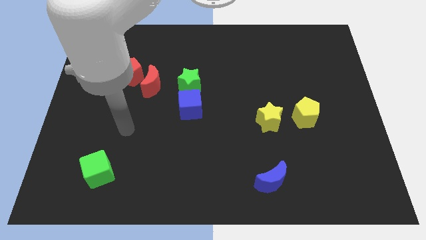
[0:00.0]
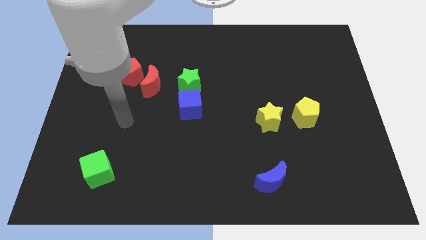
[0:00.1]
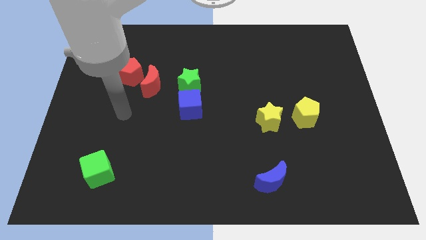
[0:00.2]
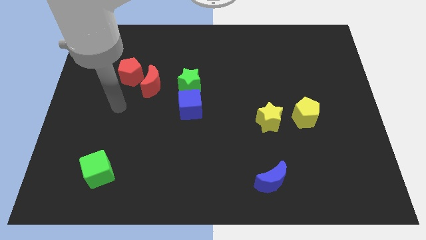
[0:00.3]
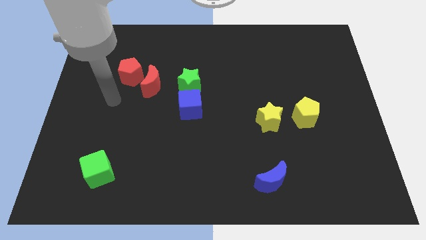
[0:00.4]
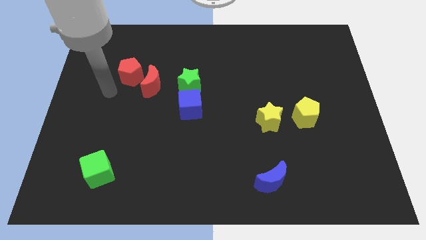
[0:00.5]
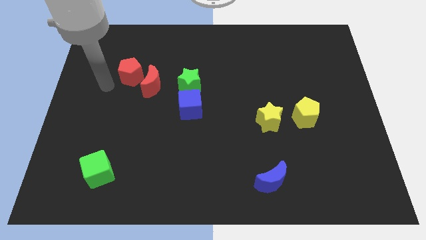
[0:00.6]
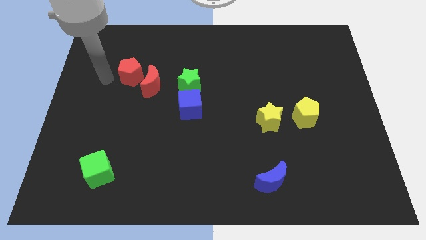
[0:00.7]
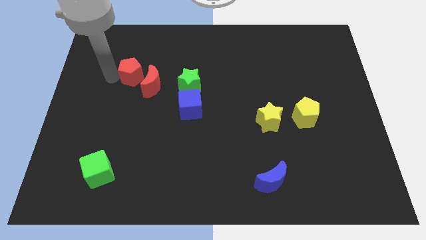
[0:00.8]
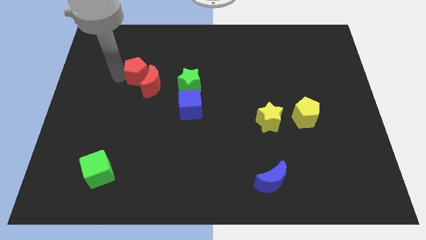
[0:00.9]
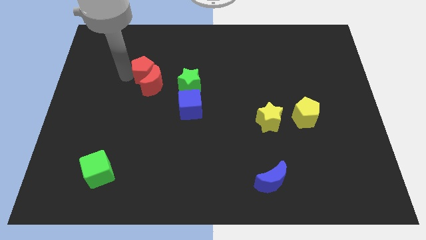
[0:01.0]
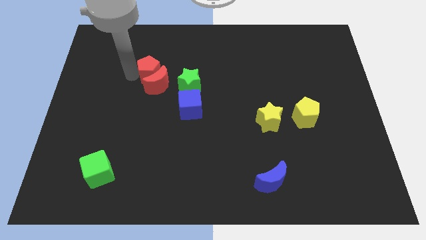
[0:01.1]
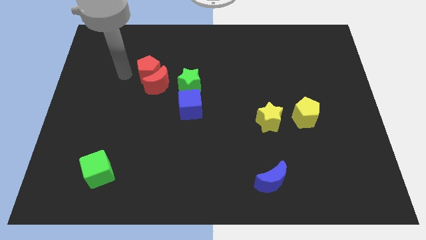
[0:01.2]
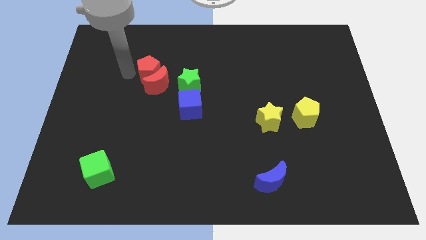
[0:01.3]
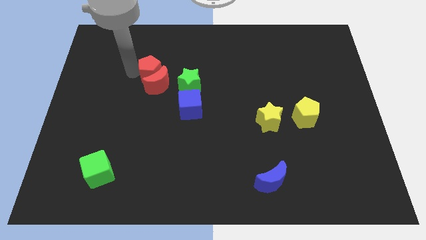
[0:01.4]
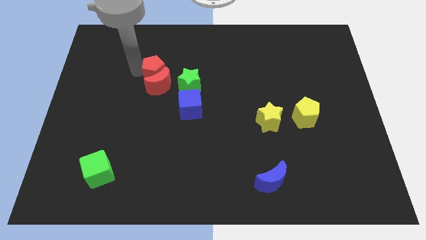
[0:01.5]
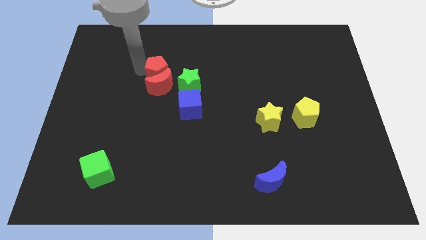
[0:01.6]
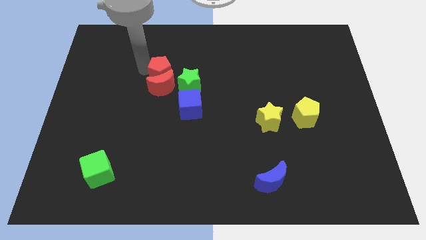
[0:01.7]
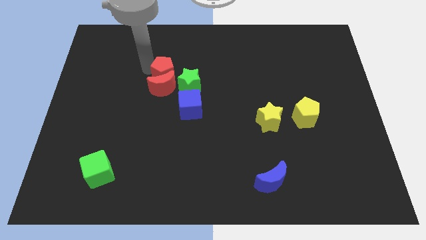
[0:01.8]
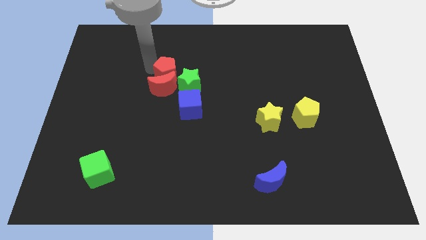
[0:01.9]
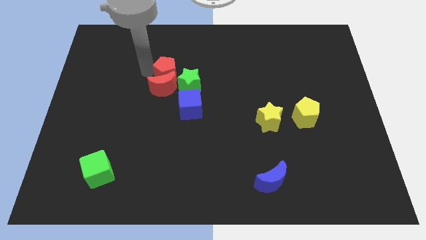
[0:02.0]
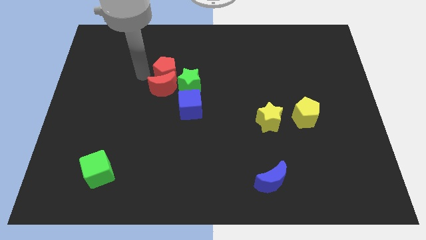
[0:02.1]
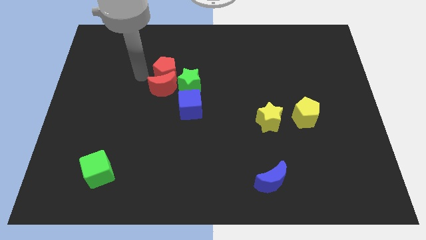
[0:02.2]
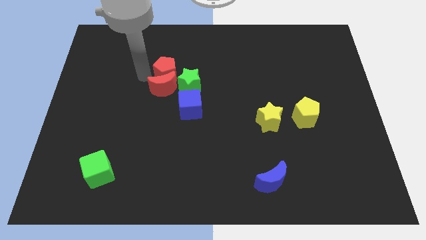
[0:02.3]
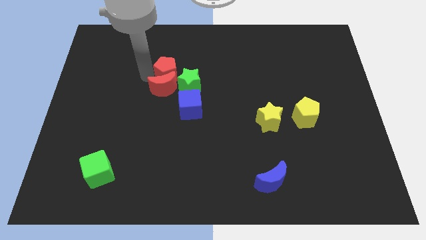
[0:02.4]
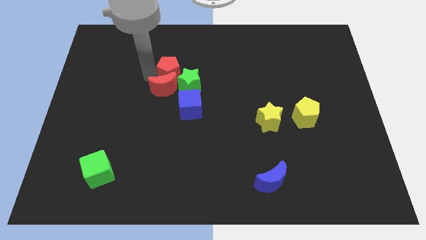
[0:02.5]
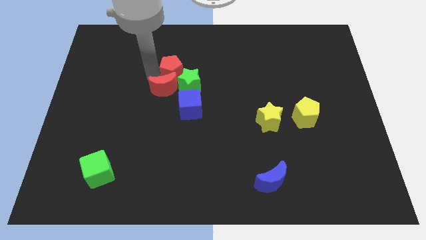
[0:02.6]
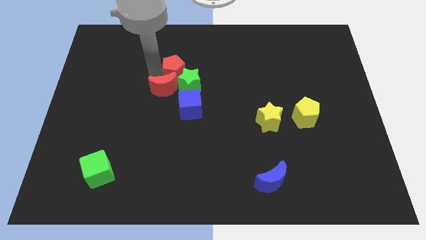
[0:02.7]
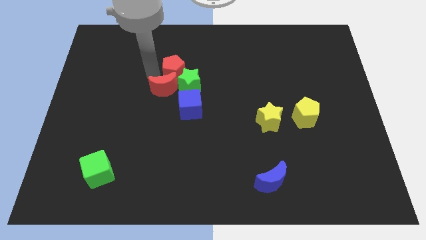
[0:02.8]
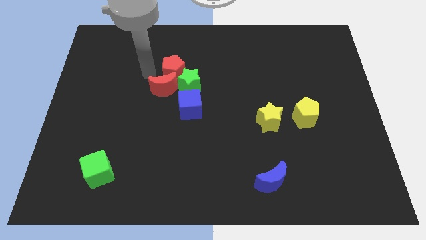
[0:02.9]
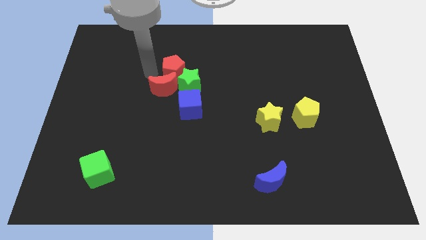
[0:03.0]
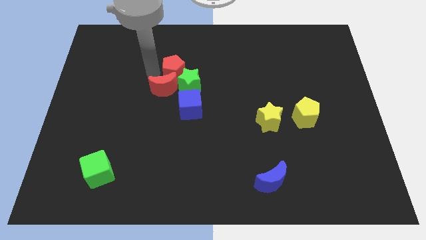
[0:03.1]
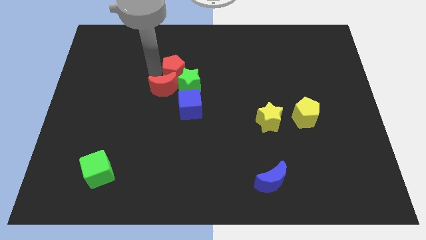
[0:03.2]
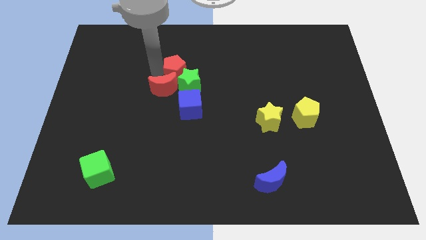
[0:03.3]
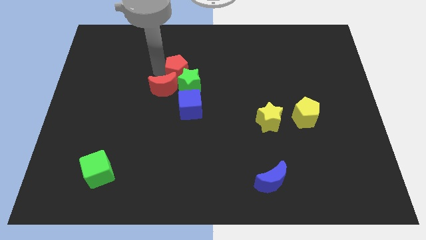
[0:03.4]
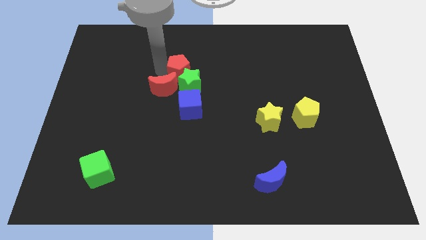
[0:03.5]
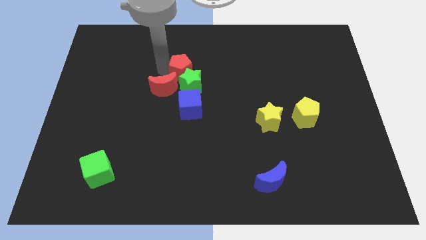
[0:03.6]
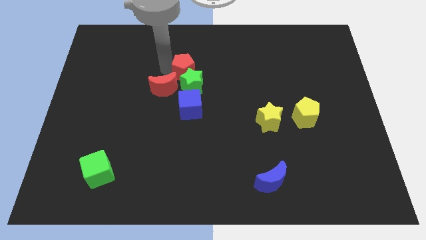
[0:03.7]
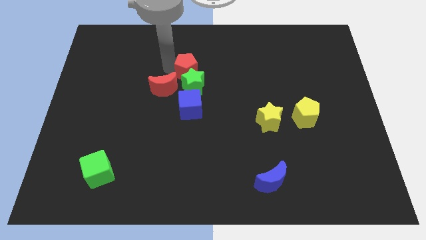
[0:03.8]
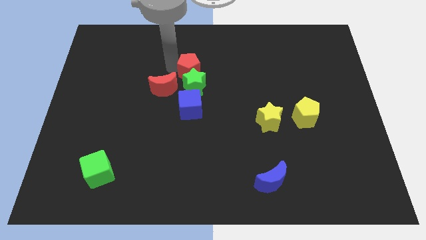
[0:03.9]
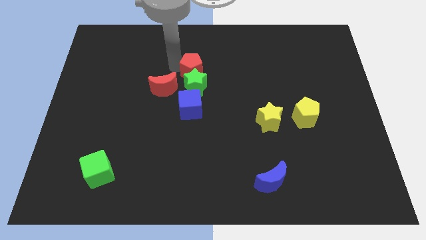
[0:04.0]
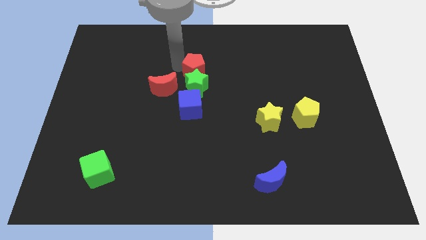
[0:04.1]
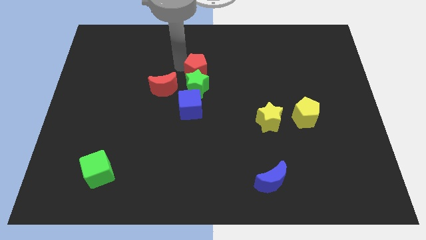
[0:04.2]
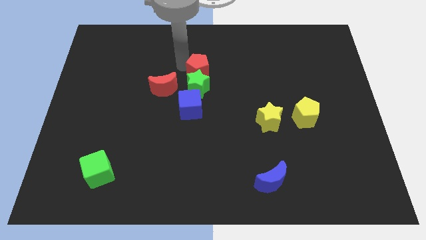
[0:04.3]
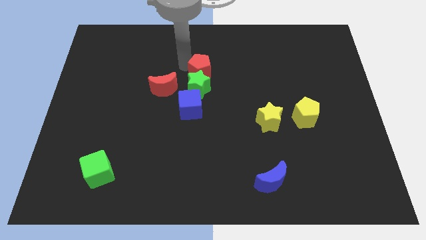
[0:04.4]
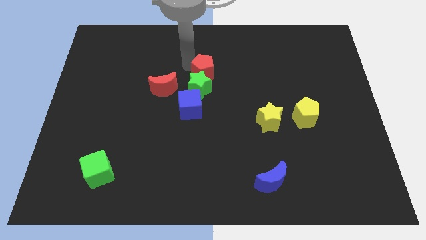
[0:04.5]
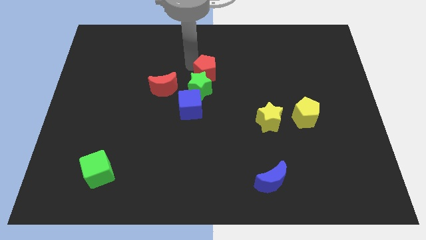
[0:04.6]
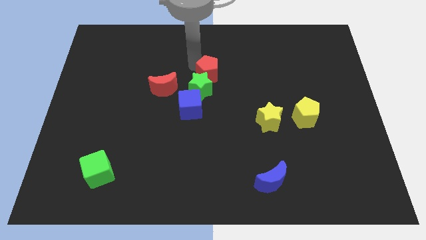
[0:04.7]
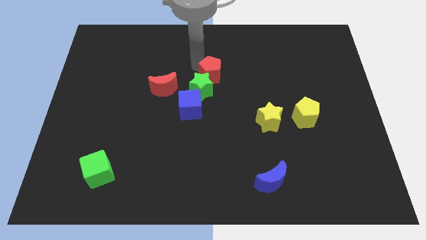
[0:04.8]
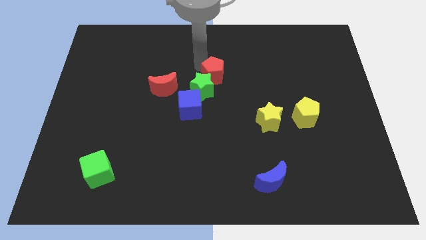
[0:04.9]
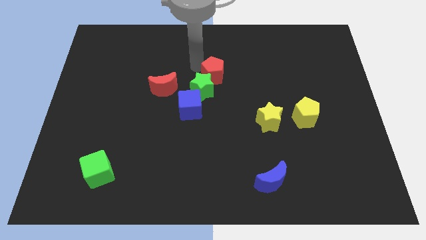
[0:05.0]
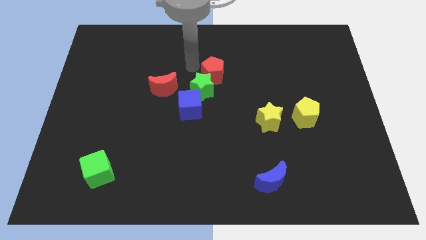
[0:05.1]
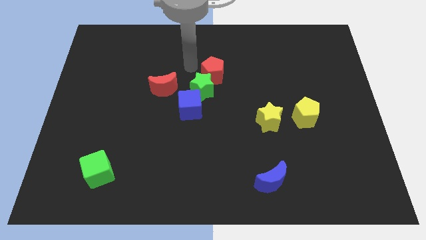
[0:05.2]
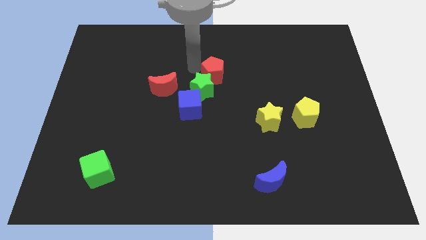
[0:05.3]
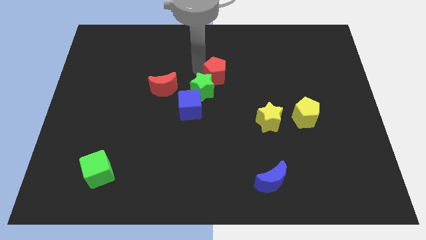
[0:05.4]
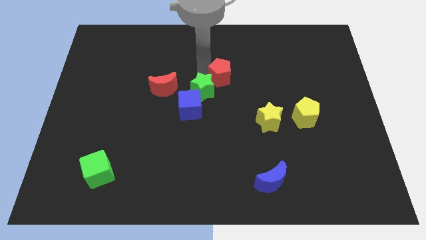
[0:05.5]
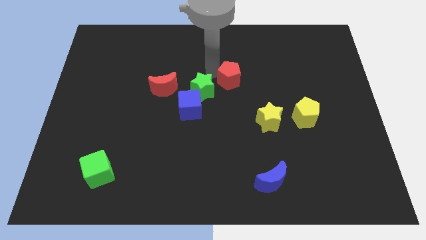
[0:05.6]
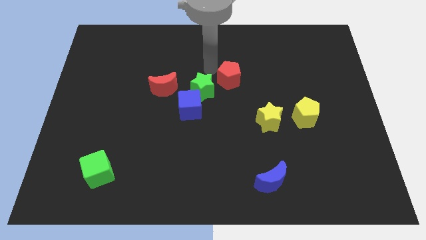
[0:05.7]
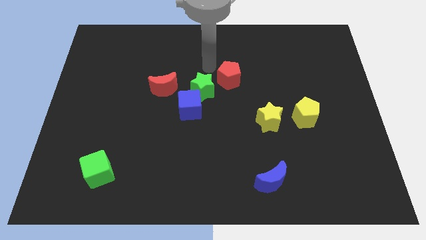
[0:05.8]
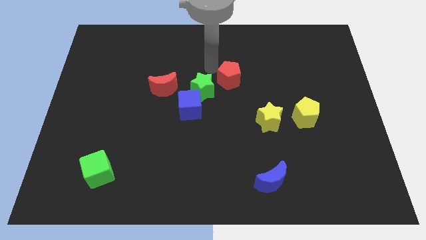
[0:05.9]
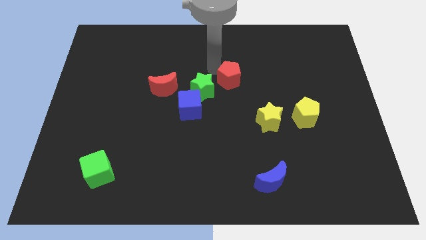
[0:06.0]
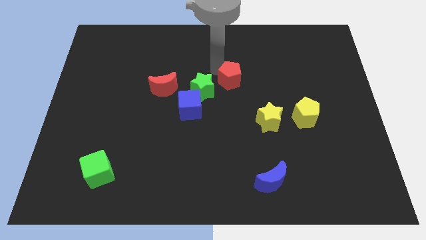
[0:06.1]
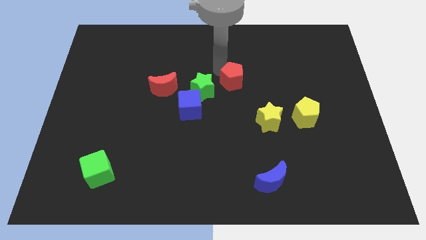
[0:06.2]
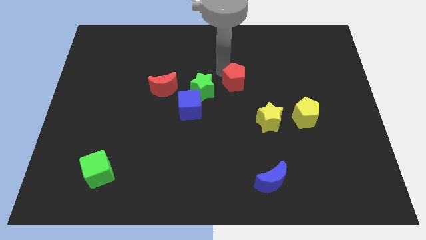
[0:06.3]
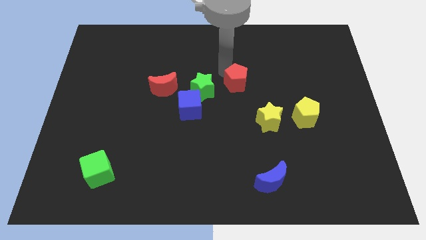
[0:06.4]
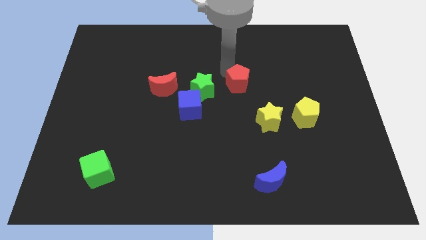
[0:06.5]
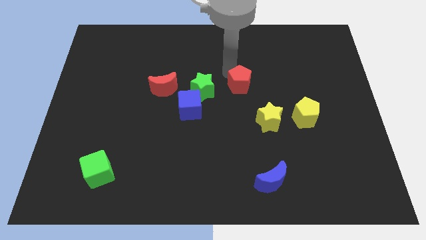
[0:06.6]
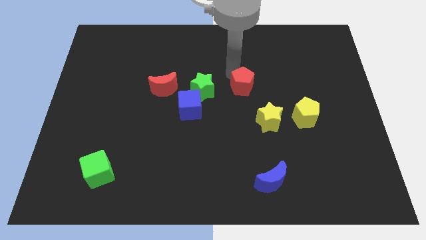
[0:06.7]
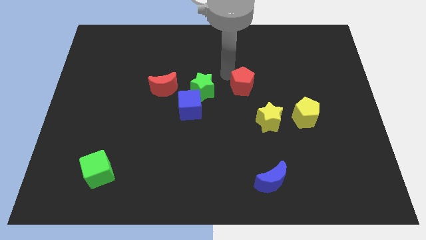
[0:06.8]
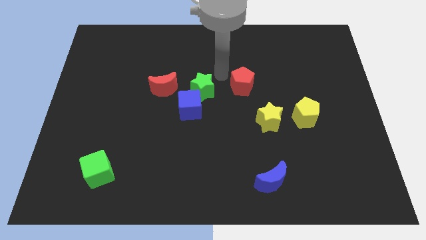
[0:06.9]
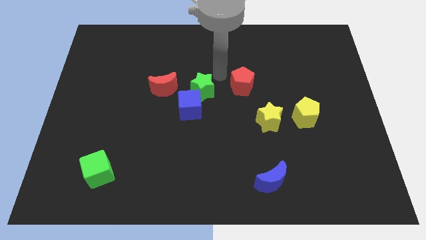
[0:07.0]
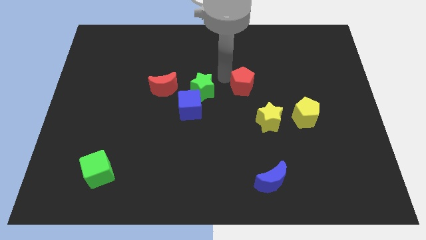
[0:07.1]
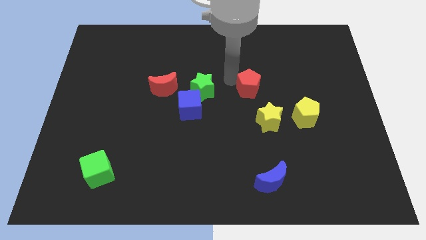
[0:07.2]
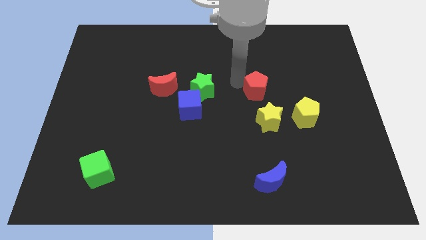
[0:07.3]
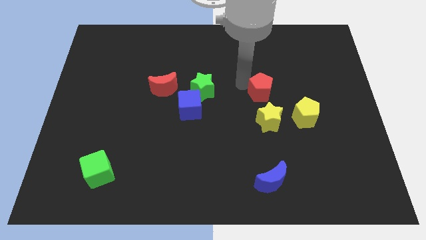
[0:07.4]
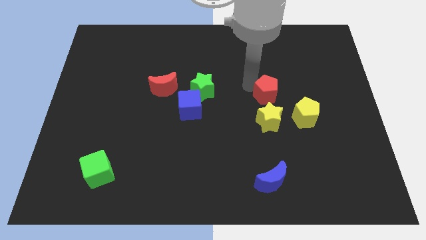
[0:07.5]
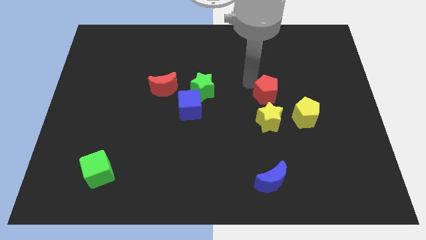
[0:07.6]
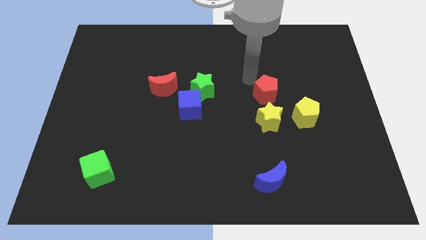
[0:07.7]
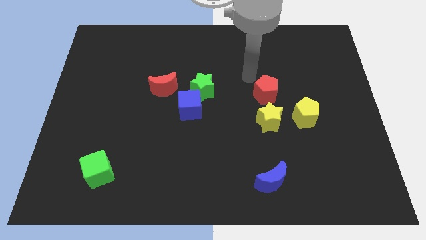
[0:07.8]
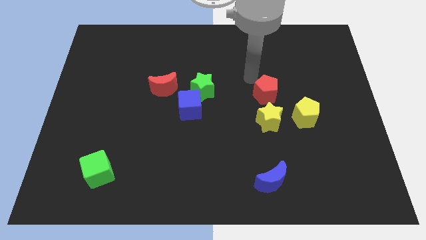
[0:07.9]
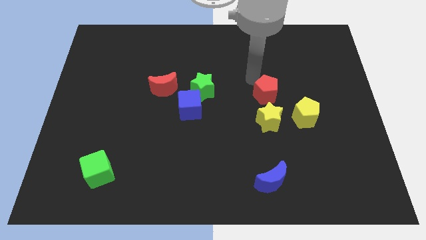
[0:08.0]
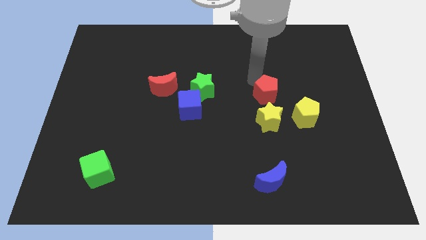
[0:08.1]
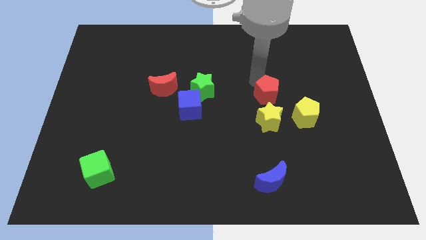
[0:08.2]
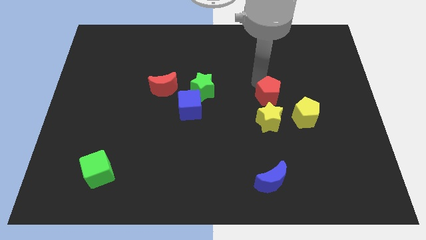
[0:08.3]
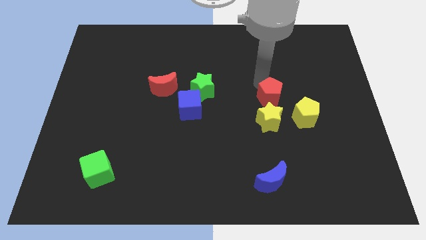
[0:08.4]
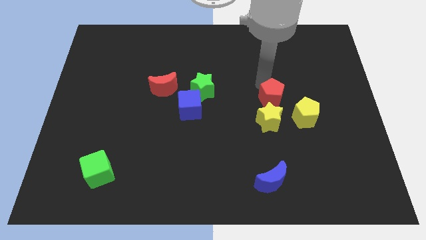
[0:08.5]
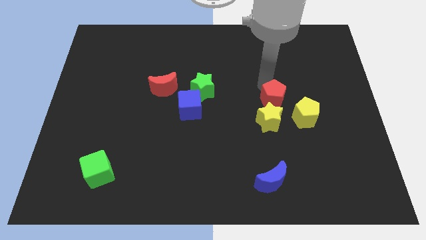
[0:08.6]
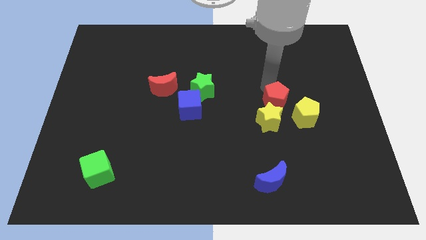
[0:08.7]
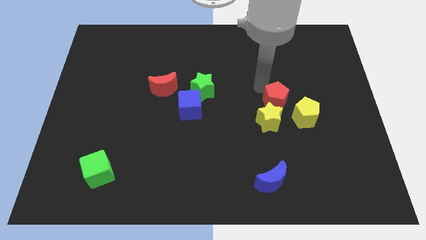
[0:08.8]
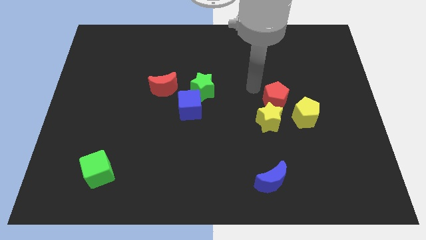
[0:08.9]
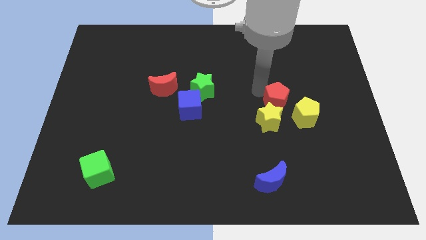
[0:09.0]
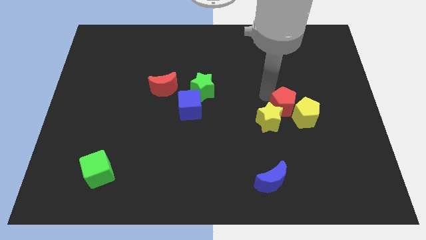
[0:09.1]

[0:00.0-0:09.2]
put the red pentagon next to the yellow pentagon
